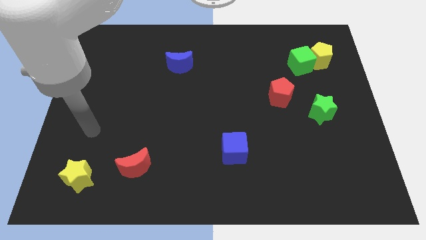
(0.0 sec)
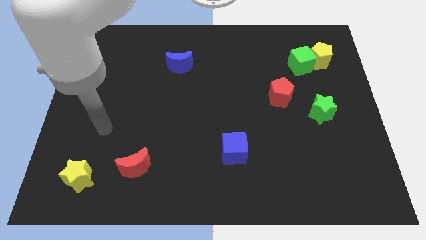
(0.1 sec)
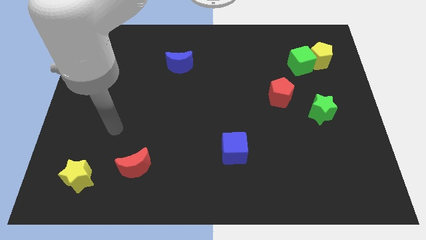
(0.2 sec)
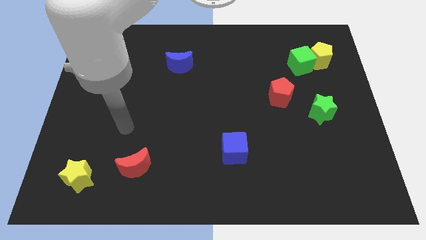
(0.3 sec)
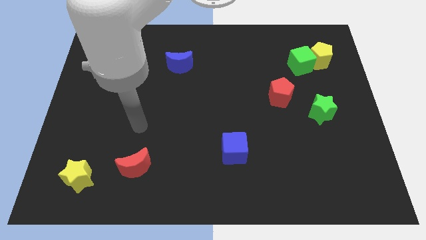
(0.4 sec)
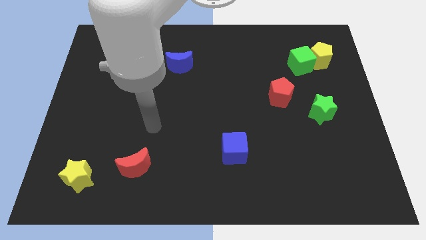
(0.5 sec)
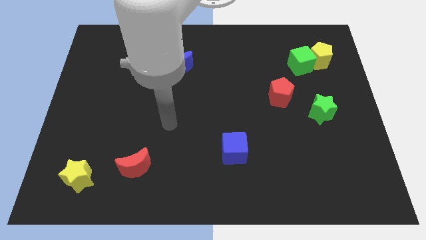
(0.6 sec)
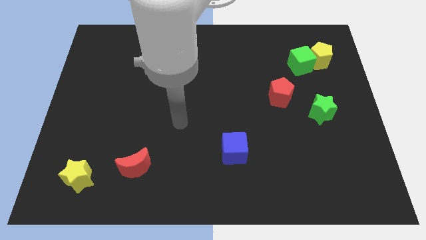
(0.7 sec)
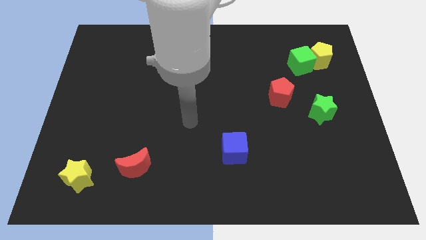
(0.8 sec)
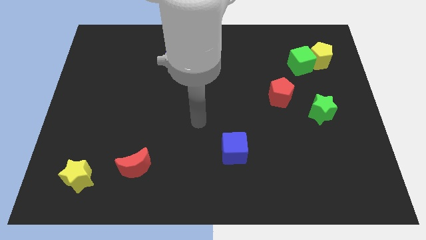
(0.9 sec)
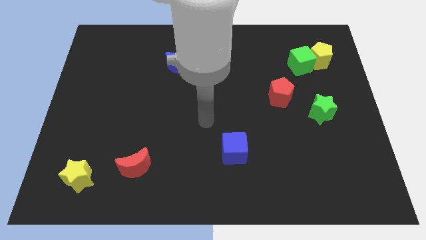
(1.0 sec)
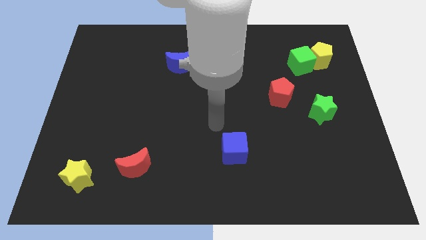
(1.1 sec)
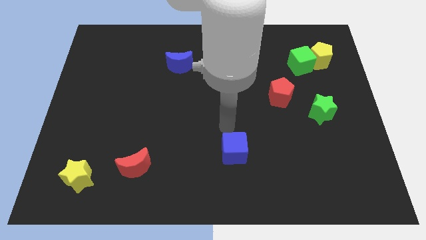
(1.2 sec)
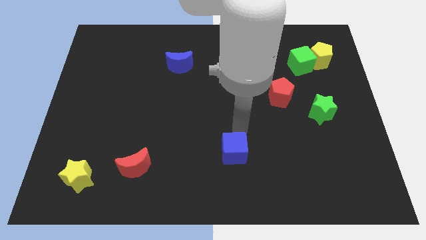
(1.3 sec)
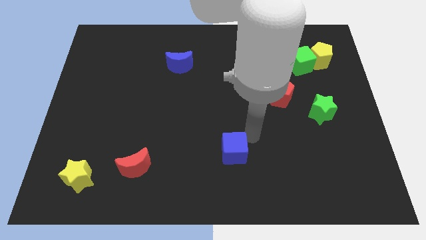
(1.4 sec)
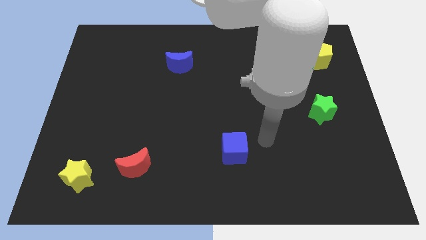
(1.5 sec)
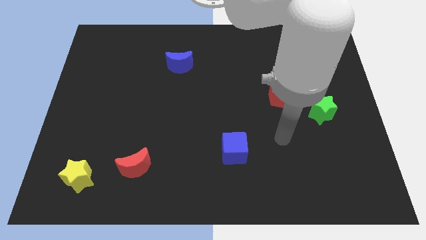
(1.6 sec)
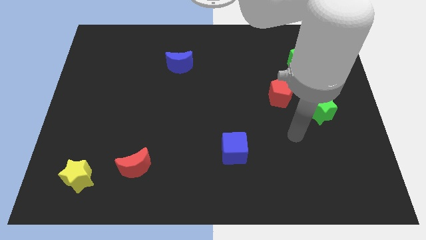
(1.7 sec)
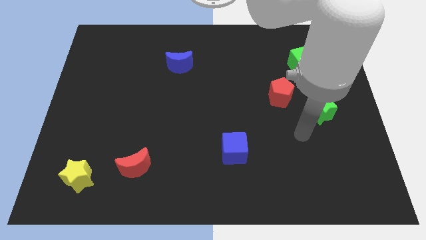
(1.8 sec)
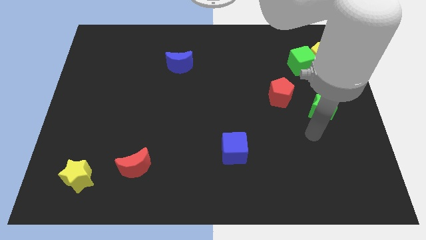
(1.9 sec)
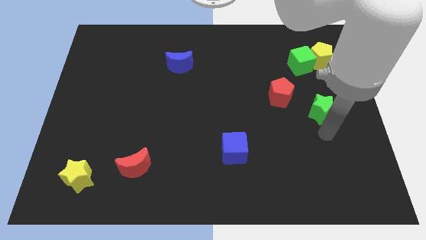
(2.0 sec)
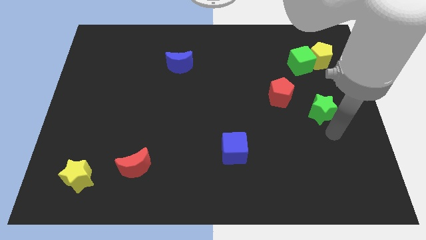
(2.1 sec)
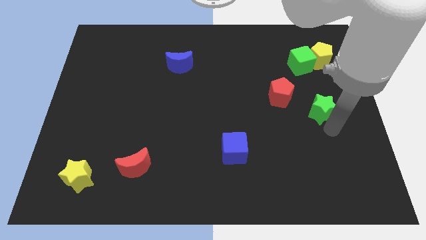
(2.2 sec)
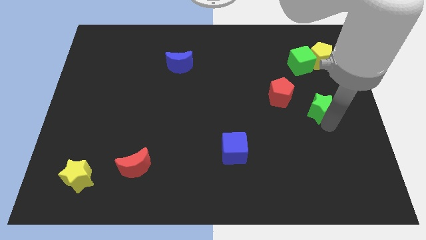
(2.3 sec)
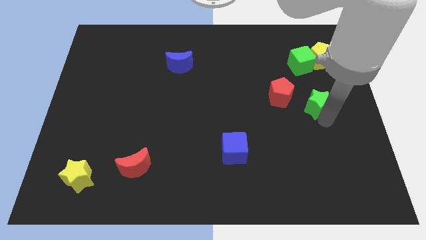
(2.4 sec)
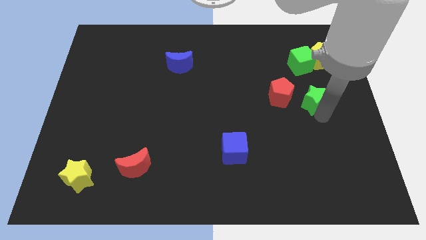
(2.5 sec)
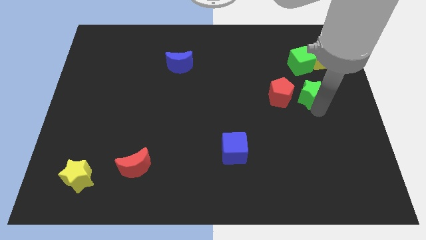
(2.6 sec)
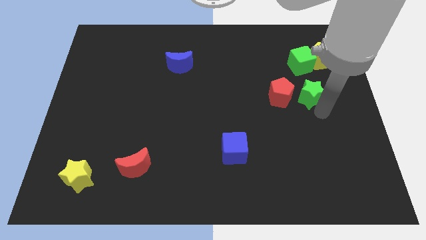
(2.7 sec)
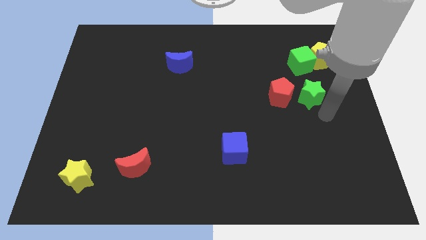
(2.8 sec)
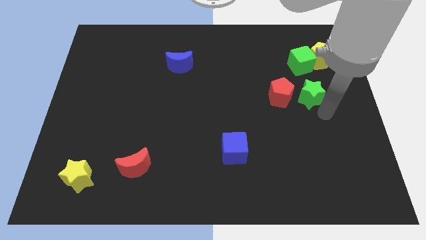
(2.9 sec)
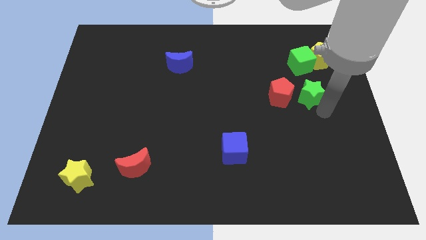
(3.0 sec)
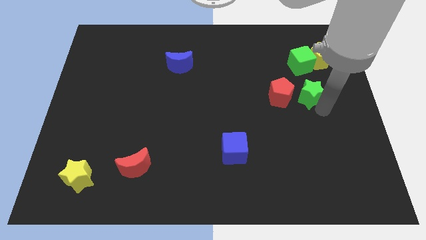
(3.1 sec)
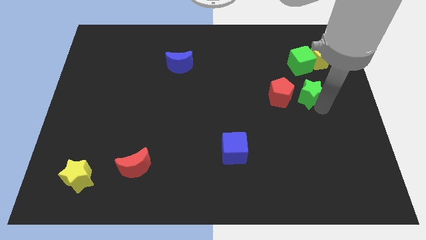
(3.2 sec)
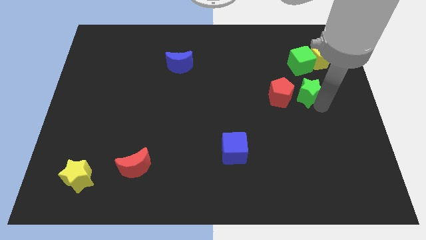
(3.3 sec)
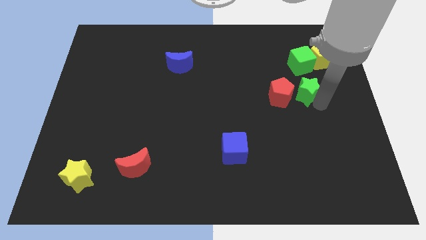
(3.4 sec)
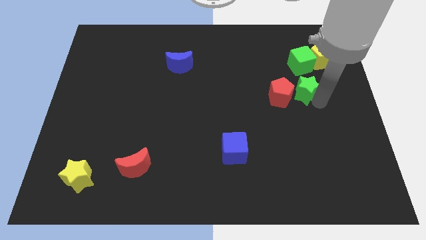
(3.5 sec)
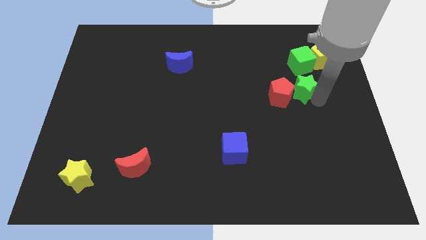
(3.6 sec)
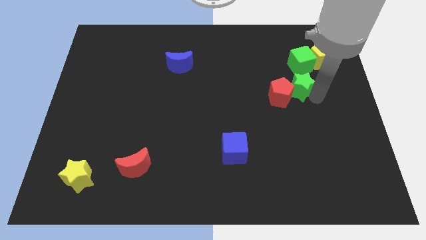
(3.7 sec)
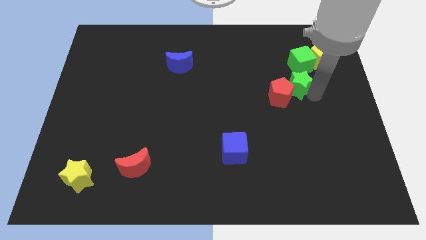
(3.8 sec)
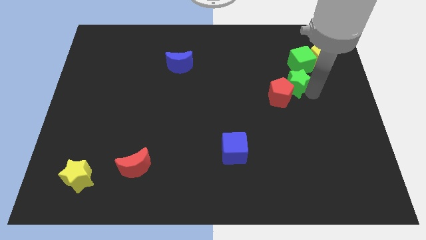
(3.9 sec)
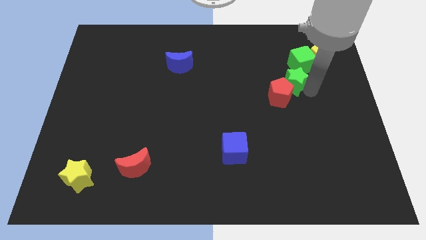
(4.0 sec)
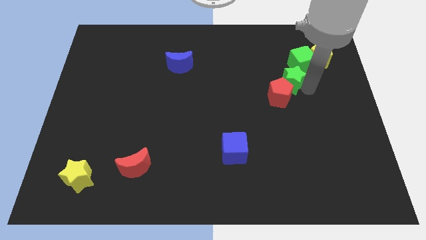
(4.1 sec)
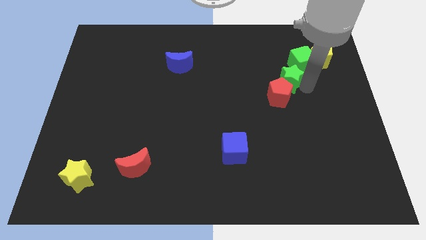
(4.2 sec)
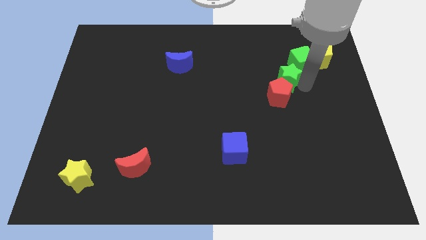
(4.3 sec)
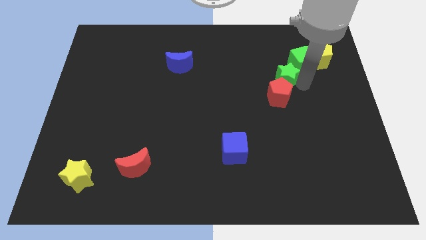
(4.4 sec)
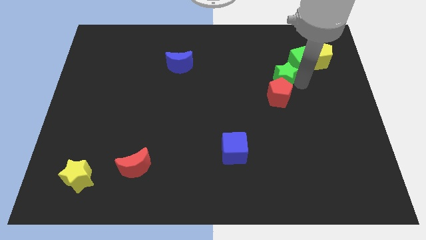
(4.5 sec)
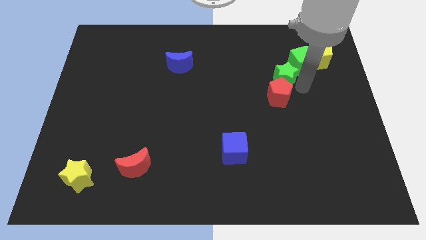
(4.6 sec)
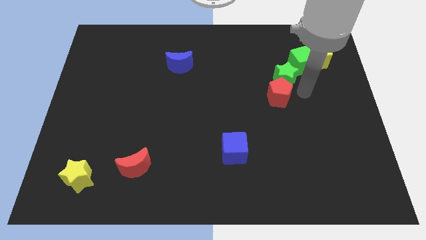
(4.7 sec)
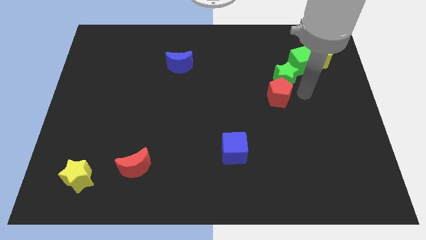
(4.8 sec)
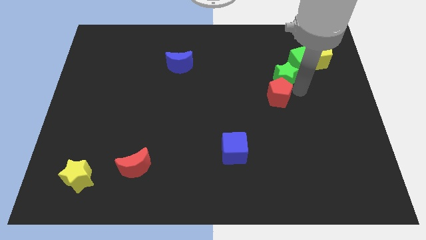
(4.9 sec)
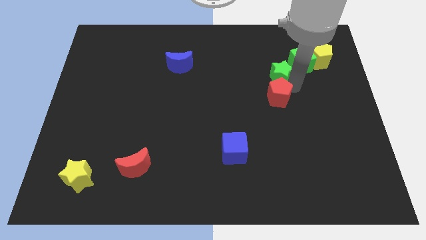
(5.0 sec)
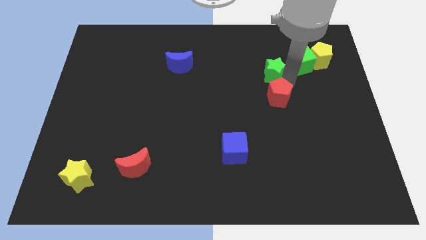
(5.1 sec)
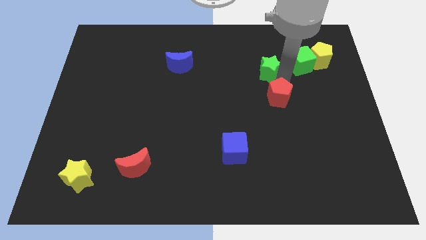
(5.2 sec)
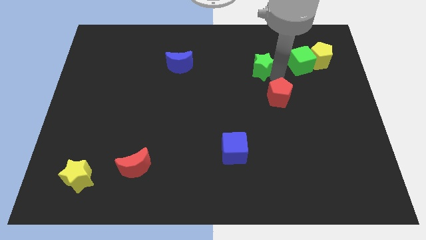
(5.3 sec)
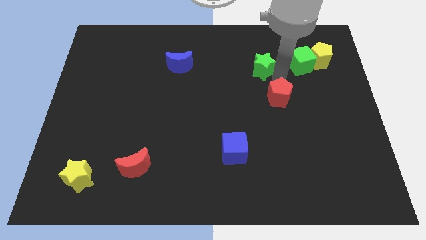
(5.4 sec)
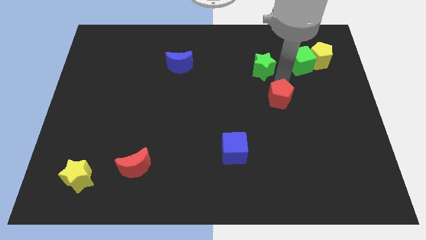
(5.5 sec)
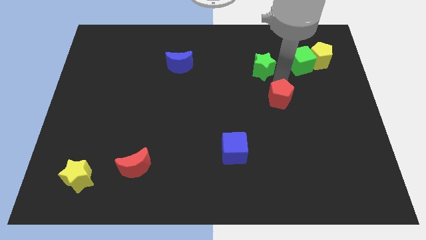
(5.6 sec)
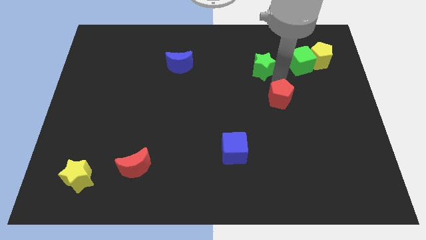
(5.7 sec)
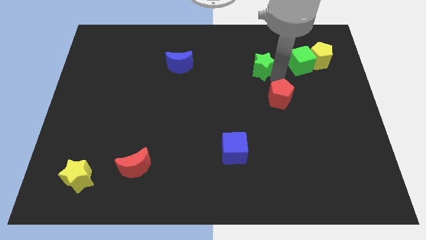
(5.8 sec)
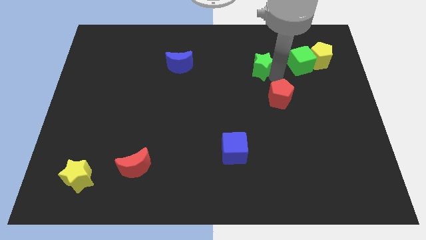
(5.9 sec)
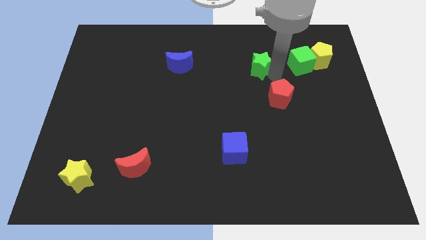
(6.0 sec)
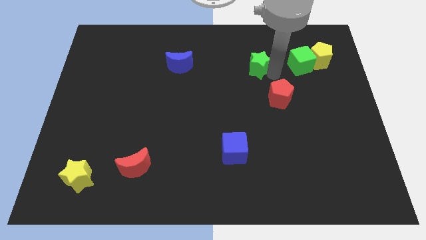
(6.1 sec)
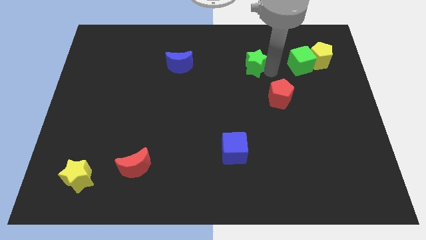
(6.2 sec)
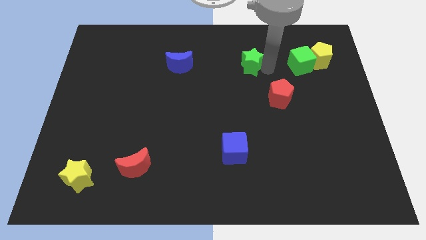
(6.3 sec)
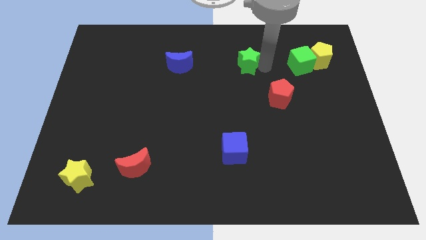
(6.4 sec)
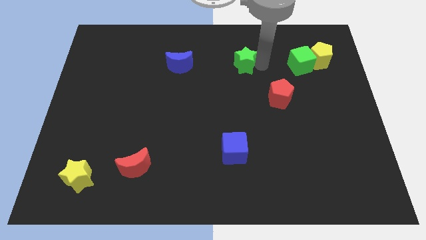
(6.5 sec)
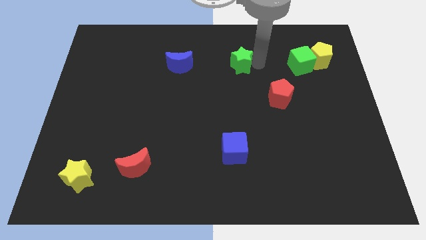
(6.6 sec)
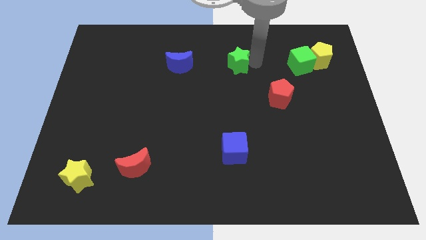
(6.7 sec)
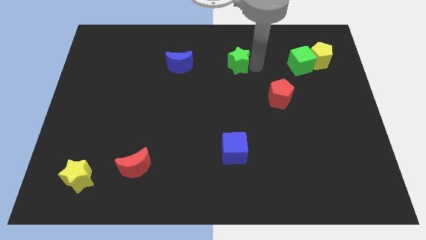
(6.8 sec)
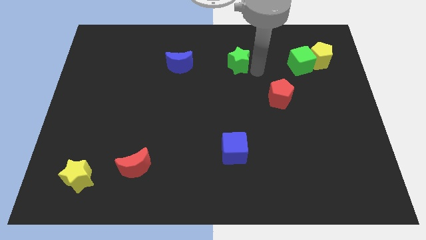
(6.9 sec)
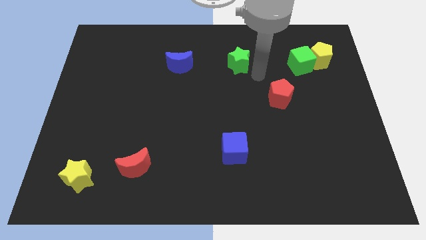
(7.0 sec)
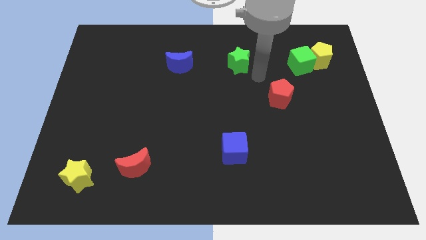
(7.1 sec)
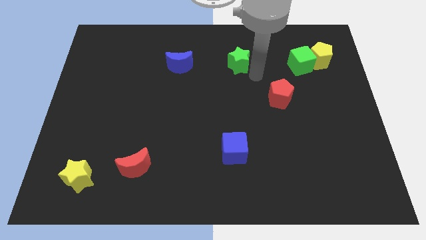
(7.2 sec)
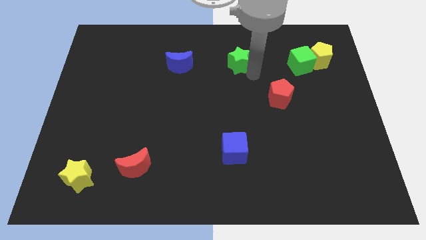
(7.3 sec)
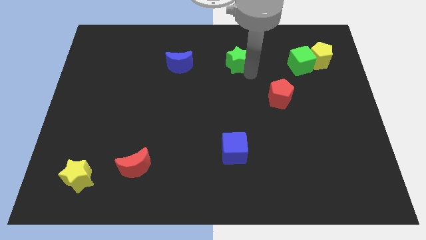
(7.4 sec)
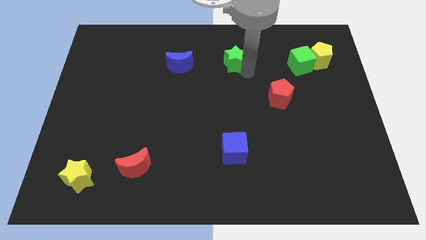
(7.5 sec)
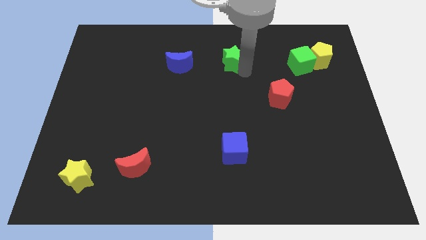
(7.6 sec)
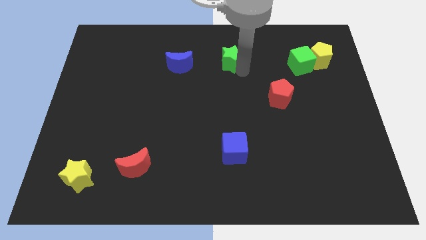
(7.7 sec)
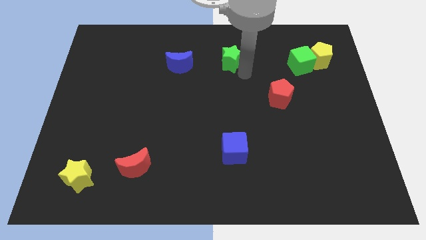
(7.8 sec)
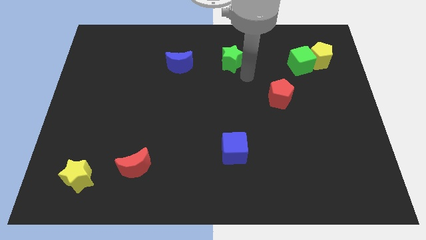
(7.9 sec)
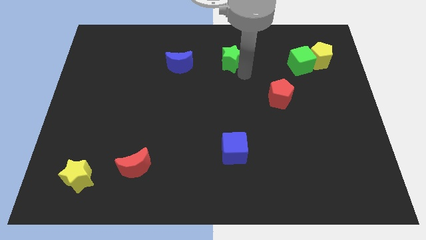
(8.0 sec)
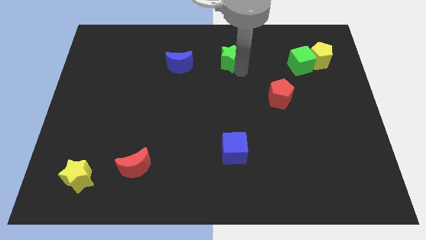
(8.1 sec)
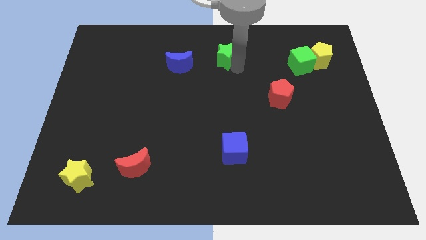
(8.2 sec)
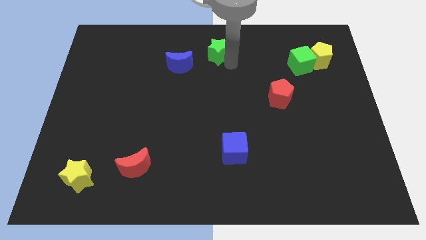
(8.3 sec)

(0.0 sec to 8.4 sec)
put the green star to the towards your base
